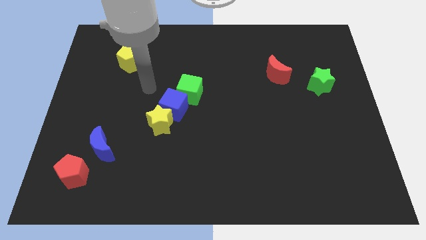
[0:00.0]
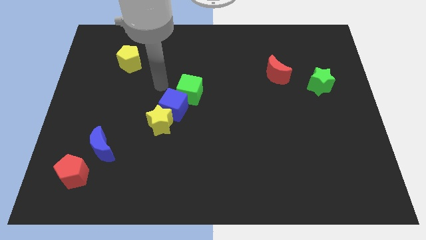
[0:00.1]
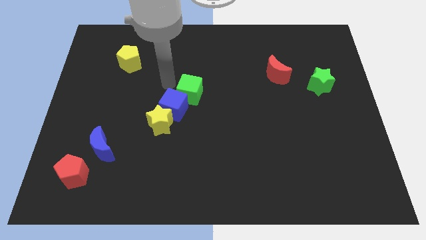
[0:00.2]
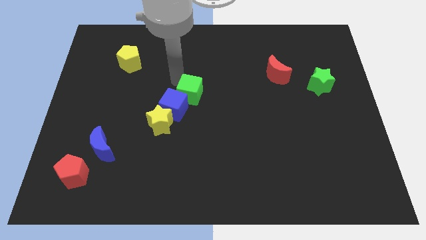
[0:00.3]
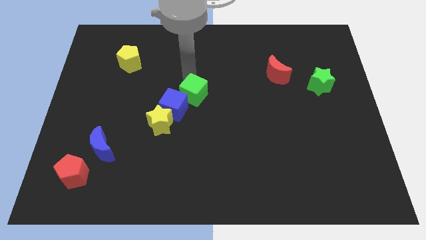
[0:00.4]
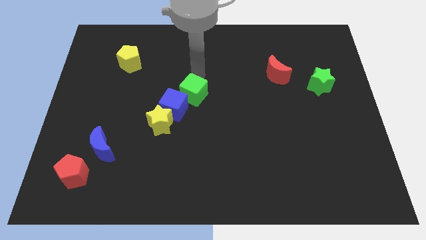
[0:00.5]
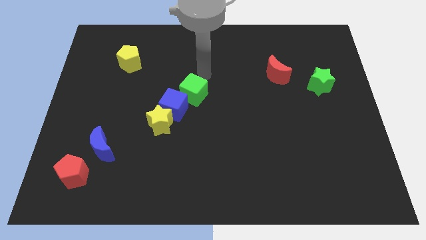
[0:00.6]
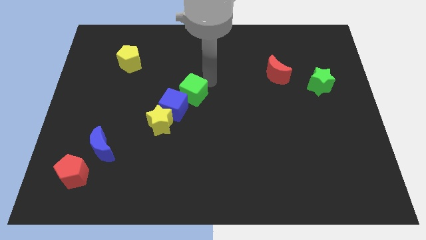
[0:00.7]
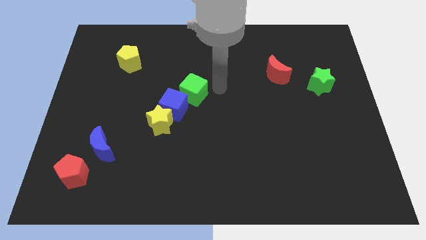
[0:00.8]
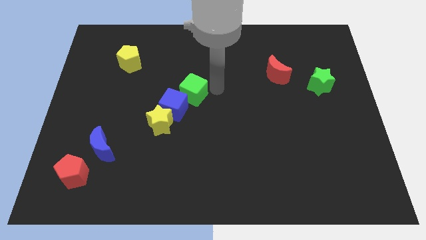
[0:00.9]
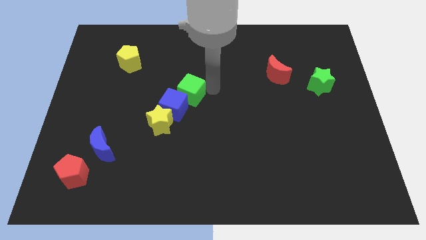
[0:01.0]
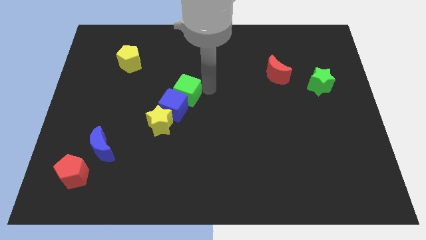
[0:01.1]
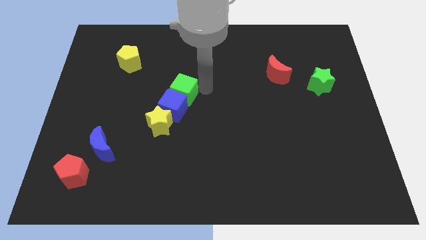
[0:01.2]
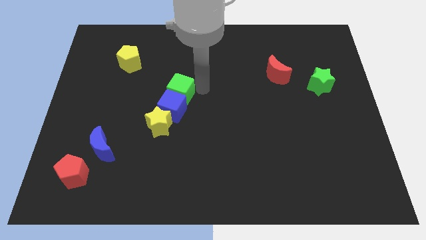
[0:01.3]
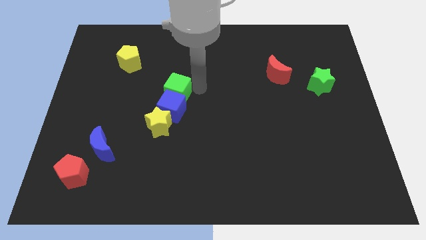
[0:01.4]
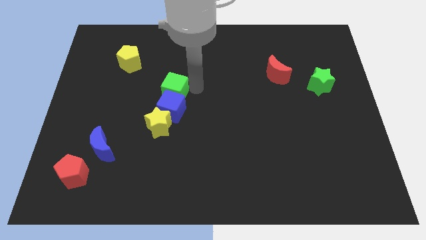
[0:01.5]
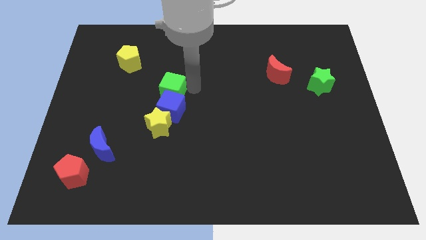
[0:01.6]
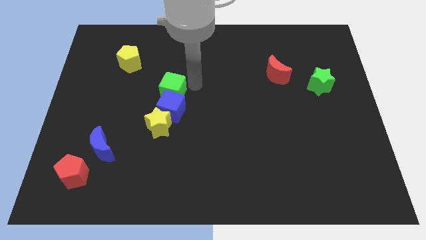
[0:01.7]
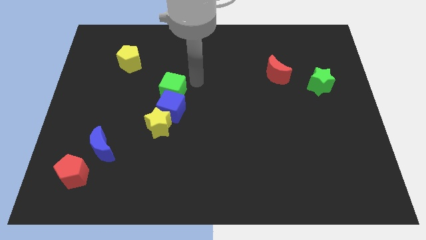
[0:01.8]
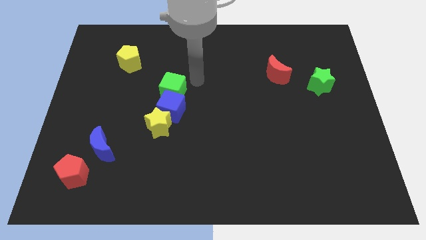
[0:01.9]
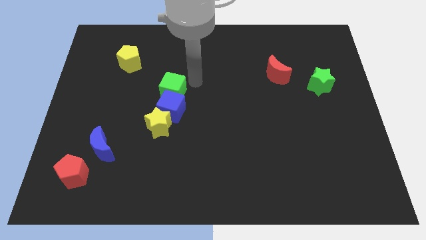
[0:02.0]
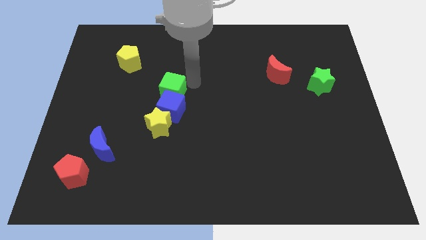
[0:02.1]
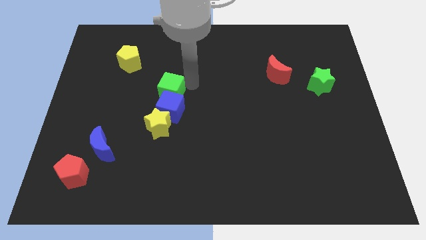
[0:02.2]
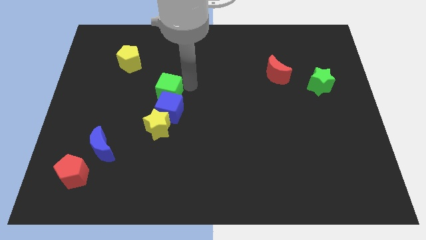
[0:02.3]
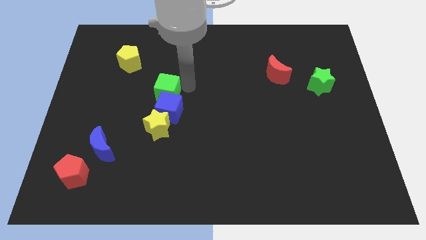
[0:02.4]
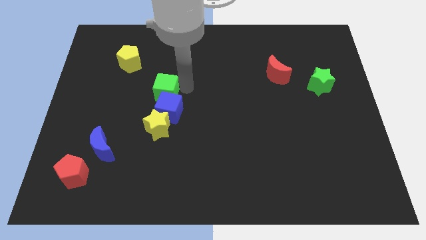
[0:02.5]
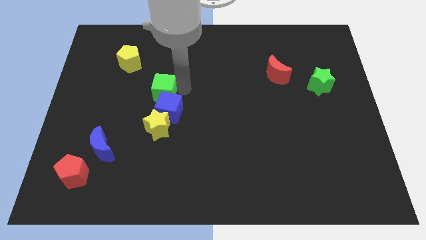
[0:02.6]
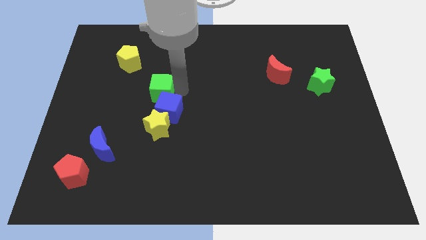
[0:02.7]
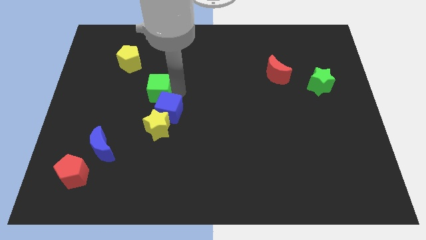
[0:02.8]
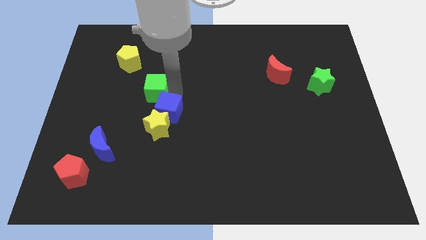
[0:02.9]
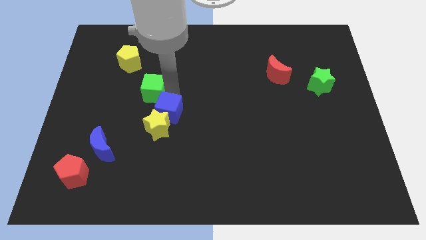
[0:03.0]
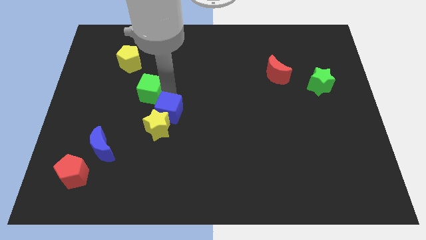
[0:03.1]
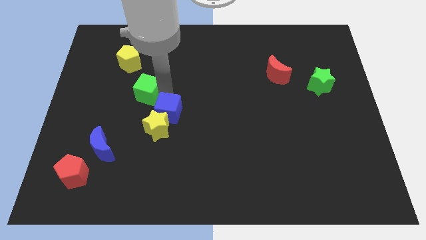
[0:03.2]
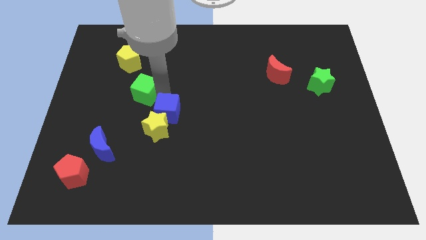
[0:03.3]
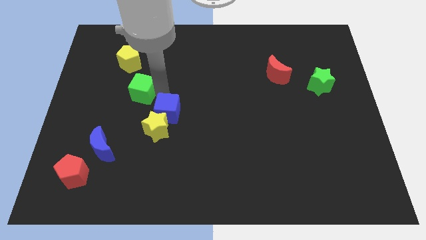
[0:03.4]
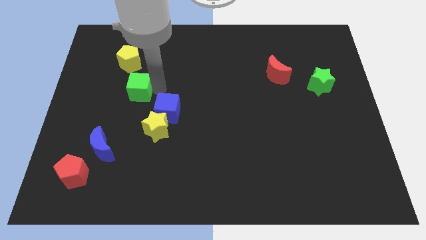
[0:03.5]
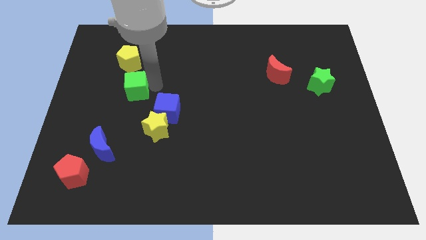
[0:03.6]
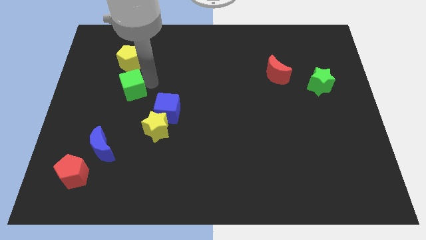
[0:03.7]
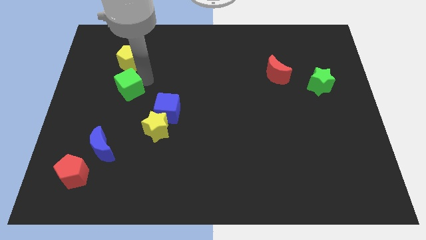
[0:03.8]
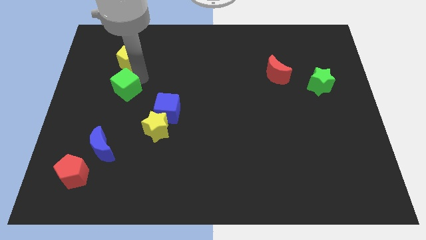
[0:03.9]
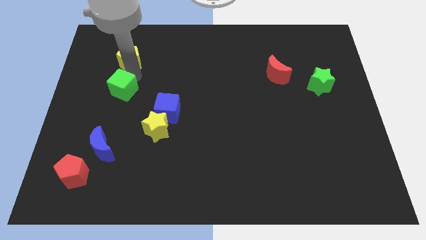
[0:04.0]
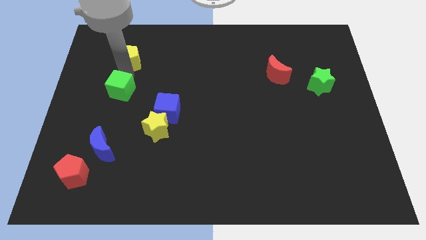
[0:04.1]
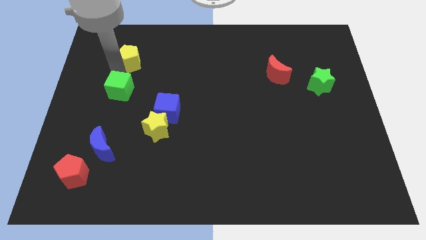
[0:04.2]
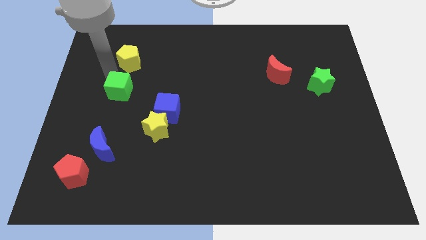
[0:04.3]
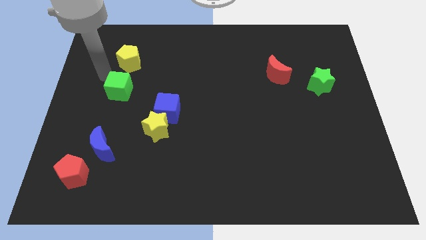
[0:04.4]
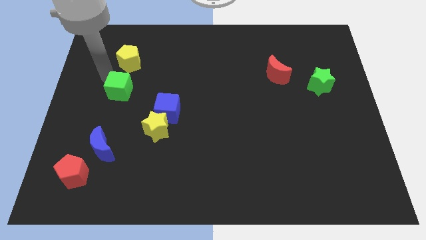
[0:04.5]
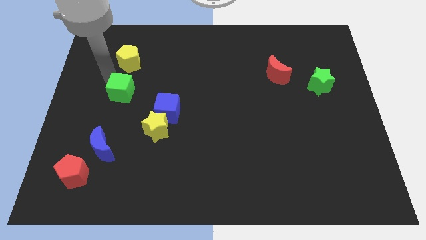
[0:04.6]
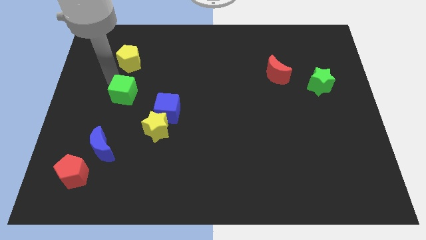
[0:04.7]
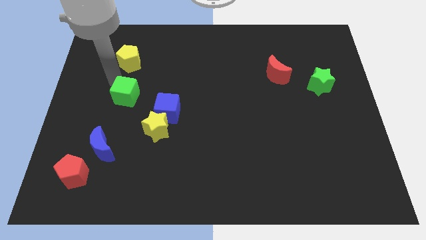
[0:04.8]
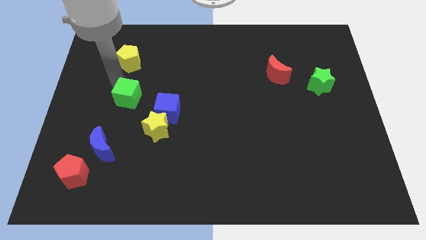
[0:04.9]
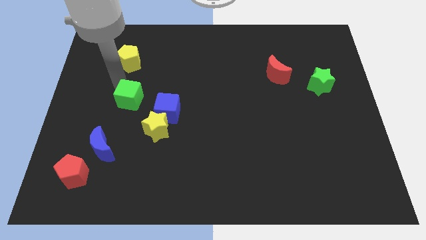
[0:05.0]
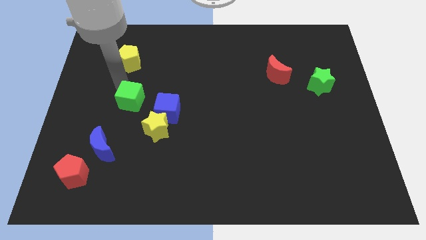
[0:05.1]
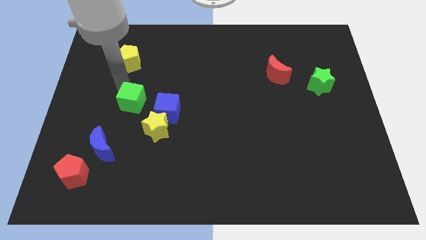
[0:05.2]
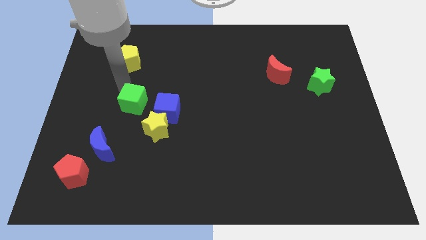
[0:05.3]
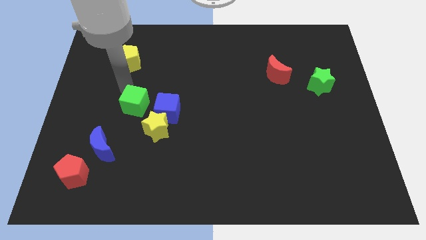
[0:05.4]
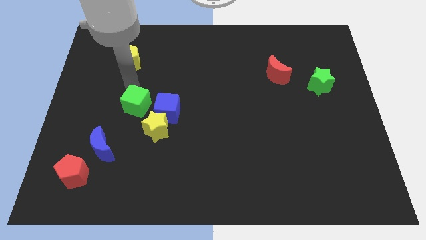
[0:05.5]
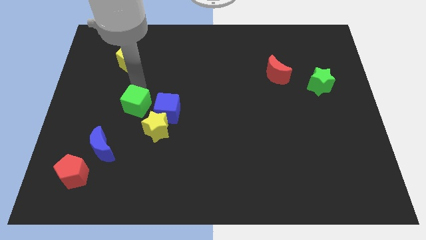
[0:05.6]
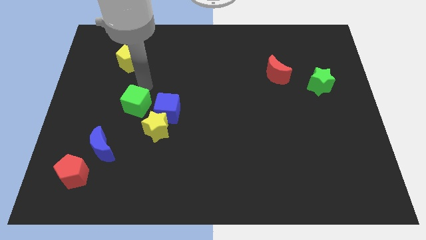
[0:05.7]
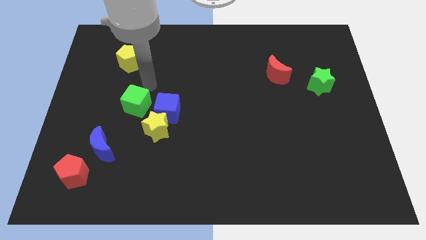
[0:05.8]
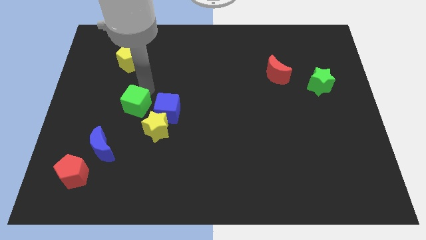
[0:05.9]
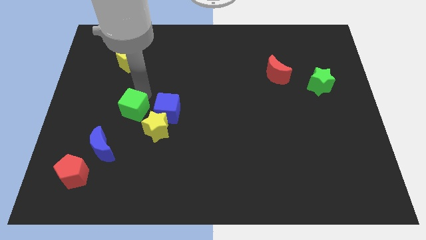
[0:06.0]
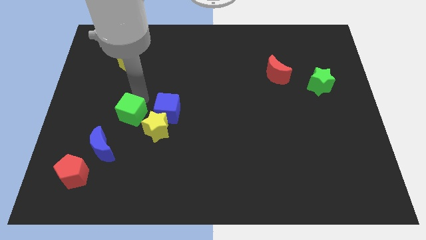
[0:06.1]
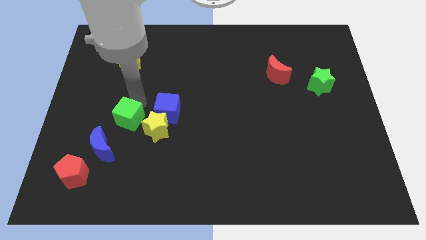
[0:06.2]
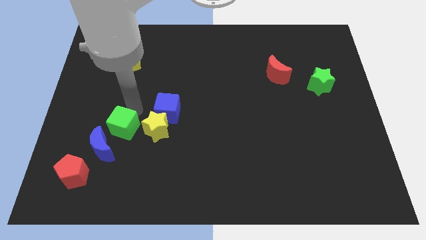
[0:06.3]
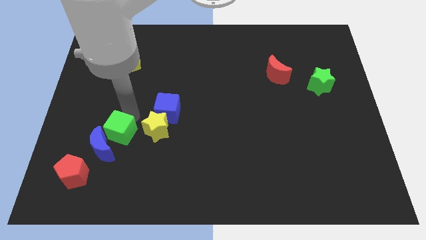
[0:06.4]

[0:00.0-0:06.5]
put the green cube towards the blue moon

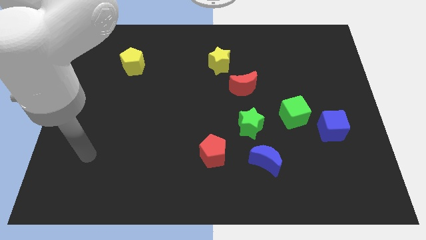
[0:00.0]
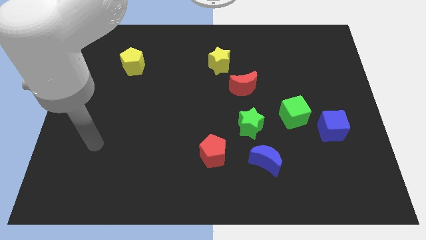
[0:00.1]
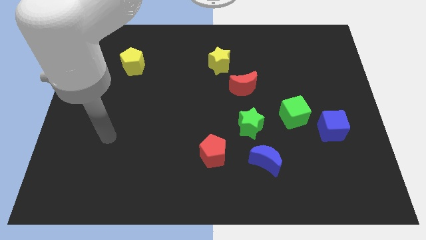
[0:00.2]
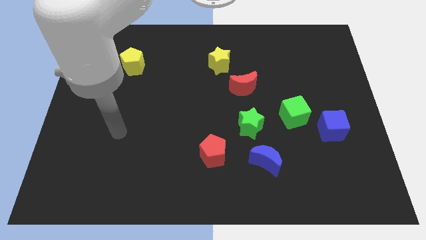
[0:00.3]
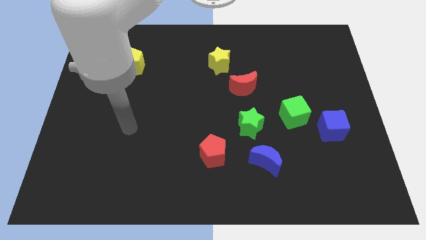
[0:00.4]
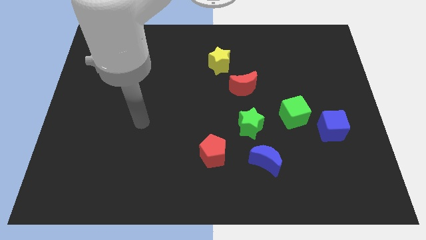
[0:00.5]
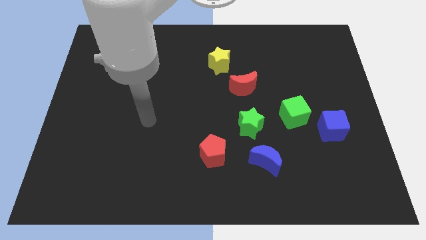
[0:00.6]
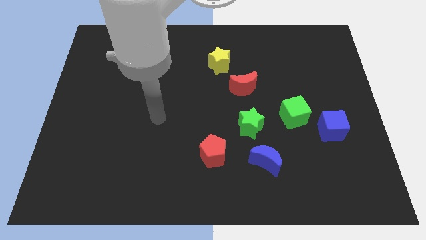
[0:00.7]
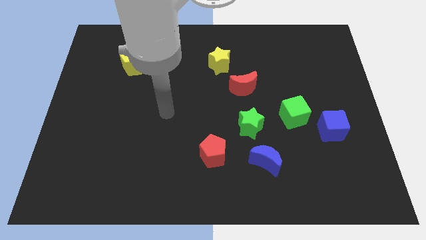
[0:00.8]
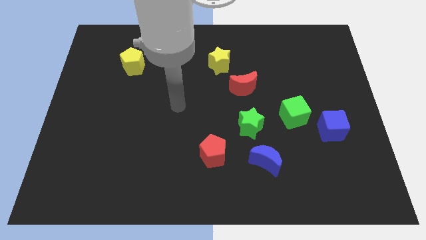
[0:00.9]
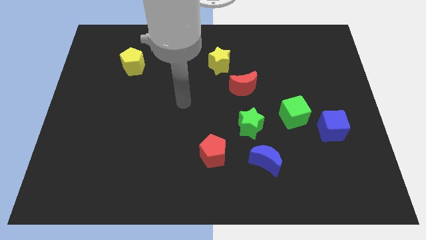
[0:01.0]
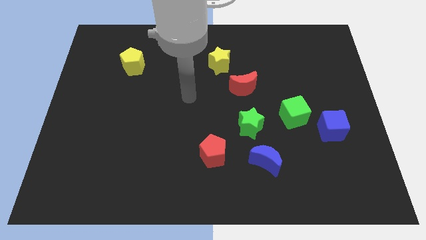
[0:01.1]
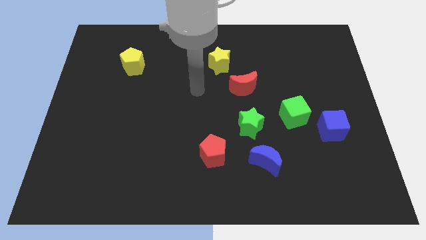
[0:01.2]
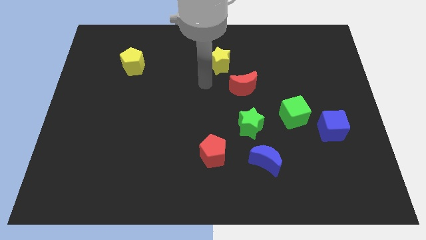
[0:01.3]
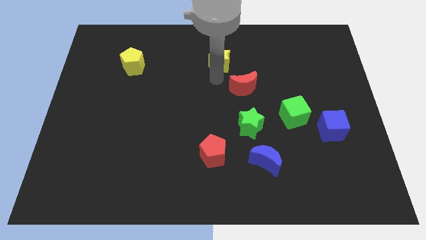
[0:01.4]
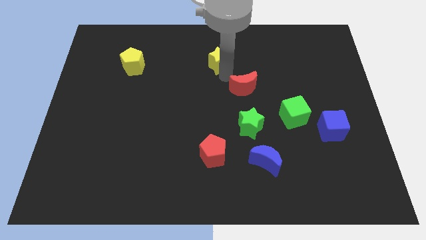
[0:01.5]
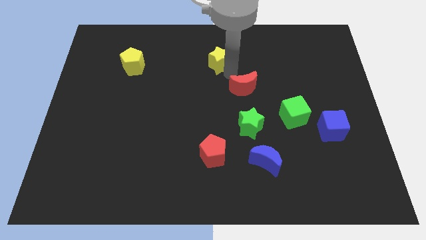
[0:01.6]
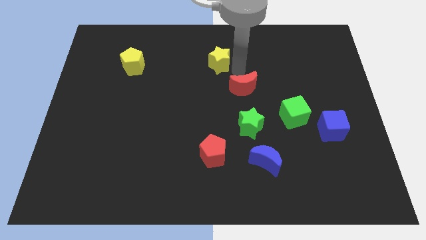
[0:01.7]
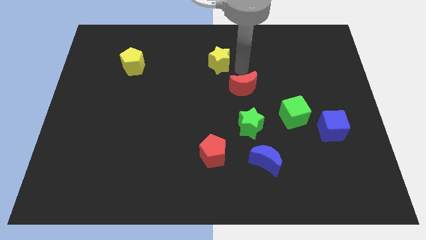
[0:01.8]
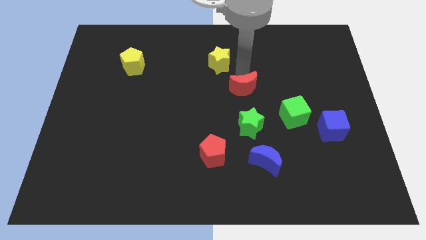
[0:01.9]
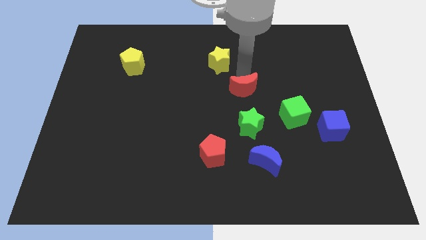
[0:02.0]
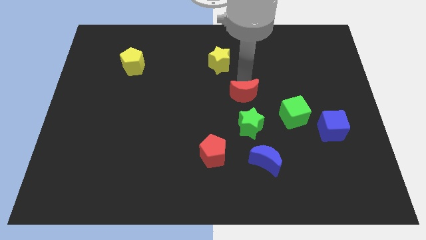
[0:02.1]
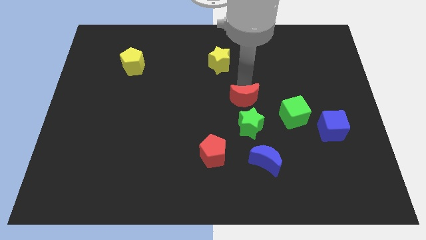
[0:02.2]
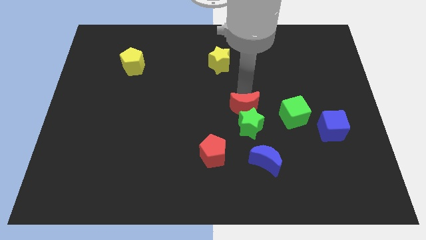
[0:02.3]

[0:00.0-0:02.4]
put the red moon to the green star
